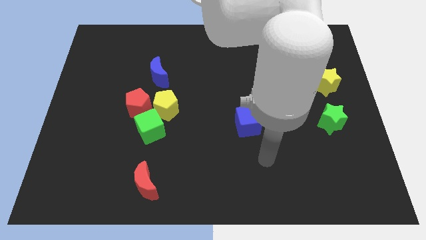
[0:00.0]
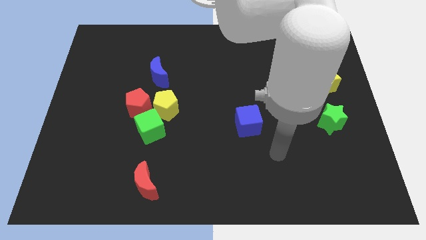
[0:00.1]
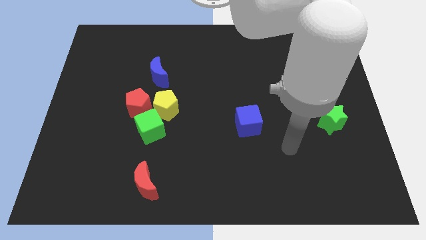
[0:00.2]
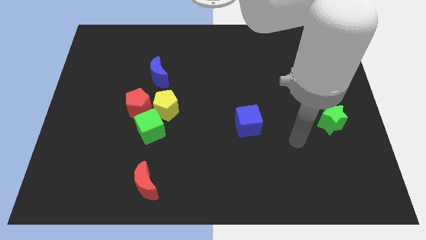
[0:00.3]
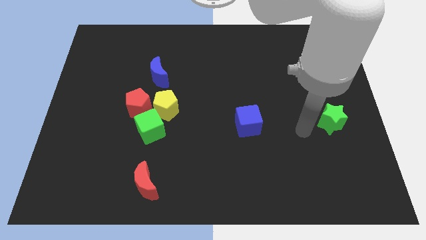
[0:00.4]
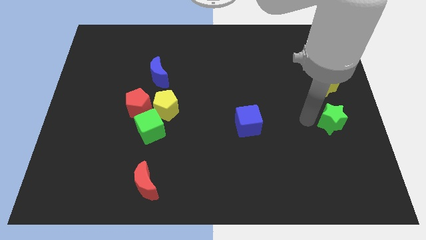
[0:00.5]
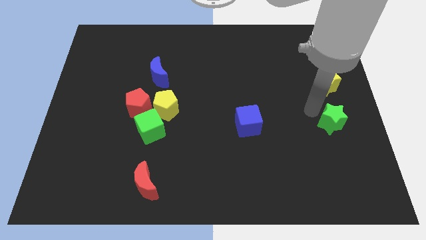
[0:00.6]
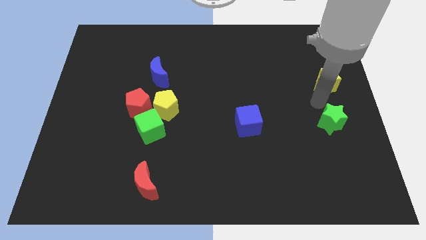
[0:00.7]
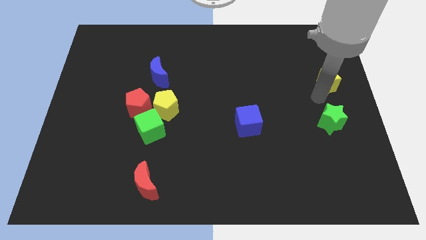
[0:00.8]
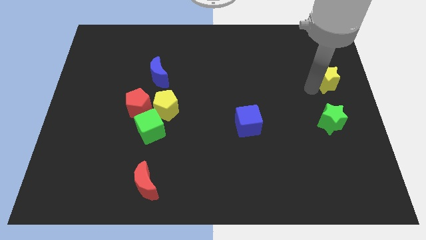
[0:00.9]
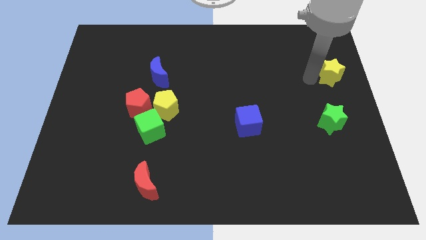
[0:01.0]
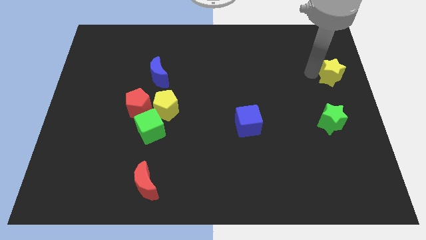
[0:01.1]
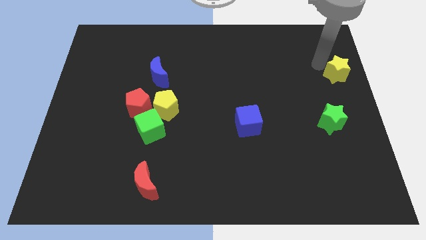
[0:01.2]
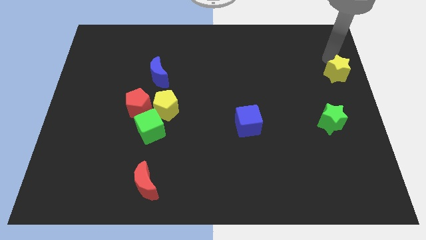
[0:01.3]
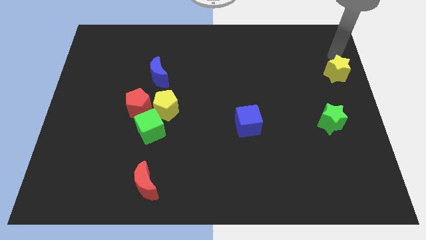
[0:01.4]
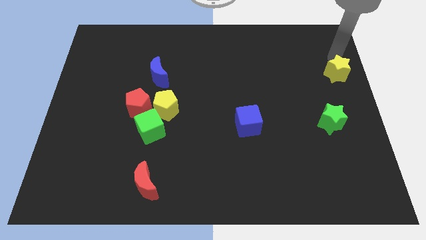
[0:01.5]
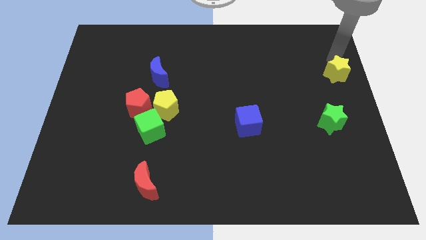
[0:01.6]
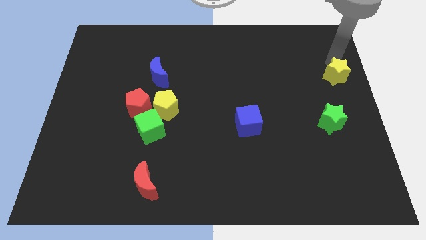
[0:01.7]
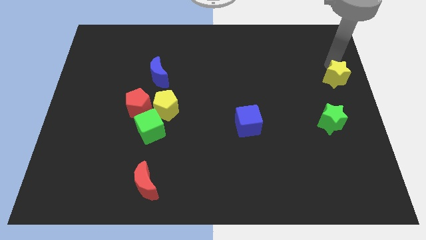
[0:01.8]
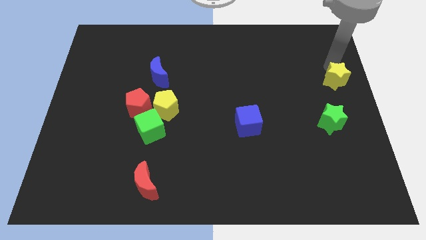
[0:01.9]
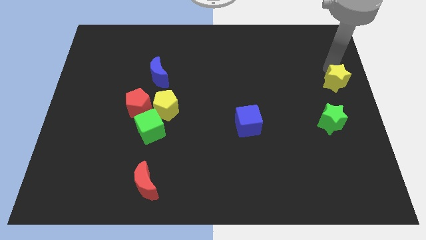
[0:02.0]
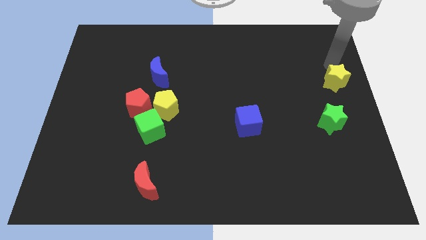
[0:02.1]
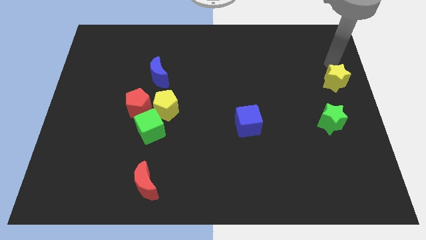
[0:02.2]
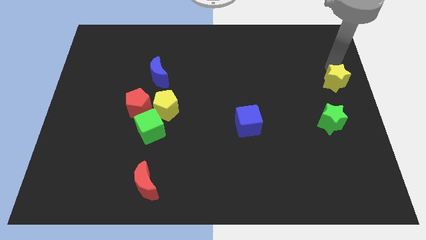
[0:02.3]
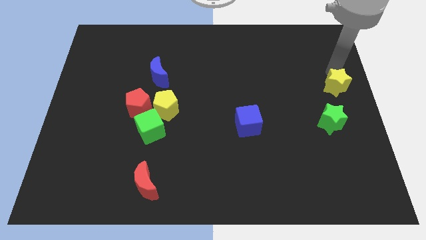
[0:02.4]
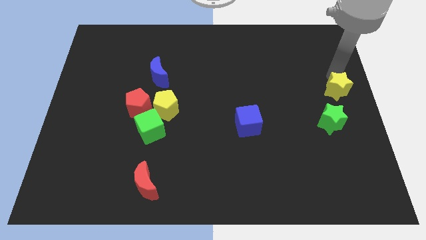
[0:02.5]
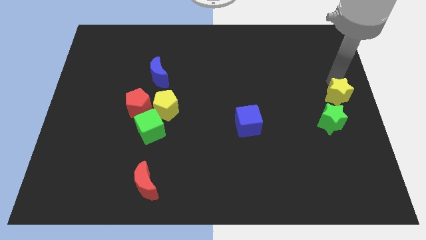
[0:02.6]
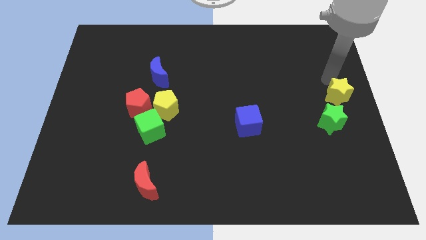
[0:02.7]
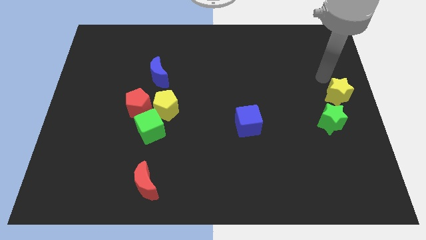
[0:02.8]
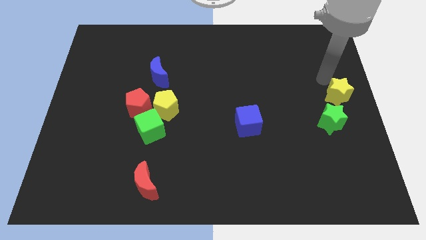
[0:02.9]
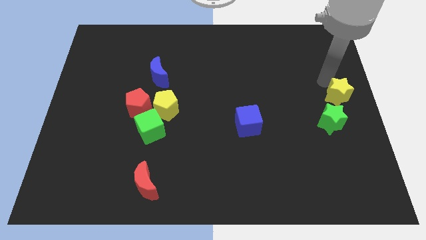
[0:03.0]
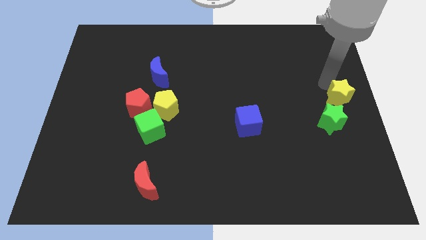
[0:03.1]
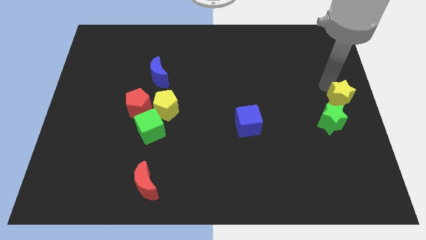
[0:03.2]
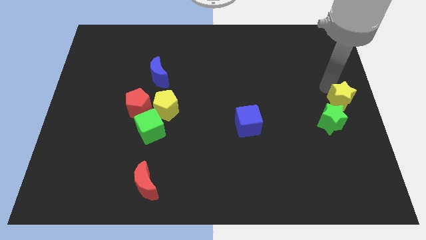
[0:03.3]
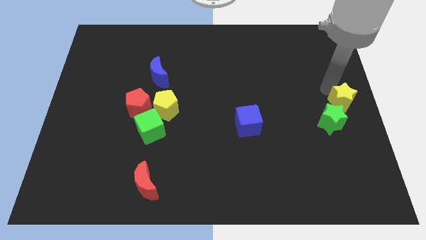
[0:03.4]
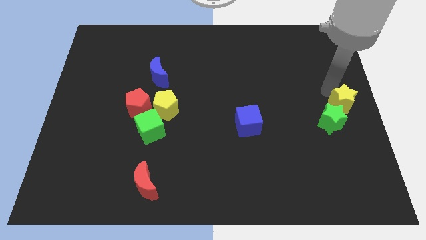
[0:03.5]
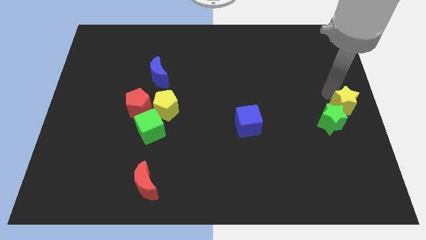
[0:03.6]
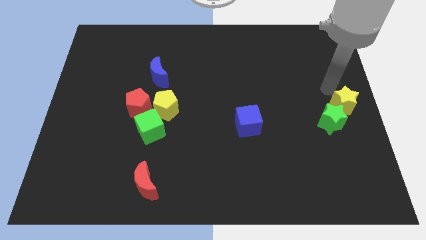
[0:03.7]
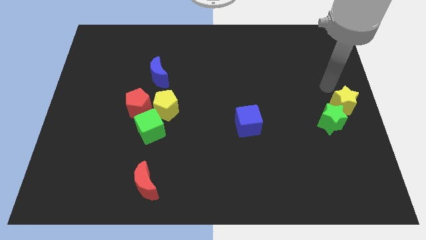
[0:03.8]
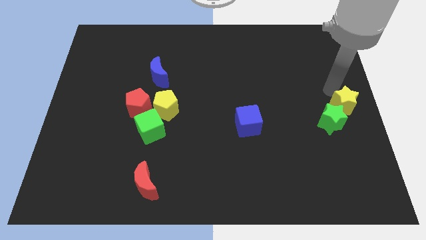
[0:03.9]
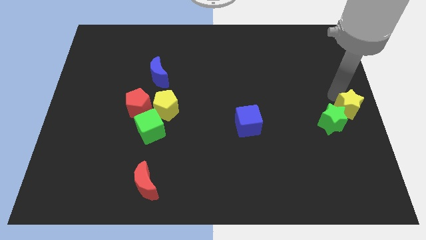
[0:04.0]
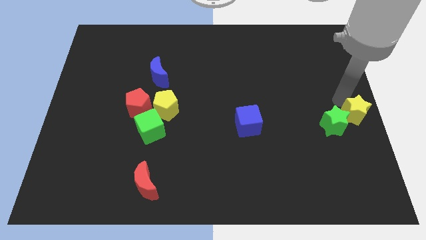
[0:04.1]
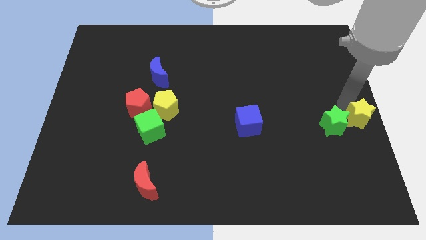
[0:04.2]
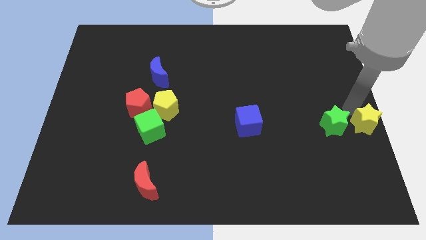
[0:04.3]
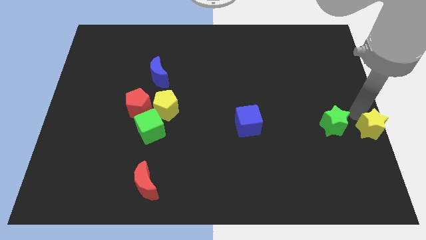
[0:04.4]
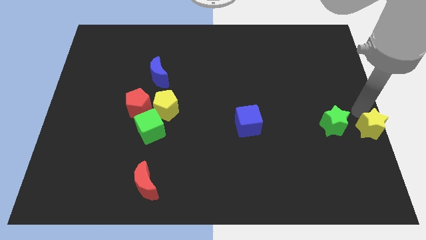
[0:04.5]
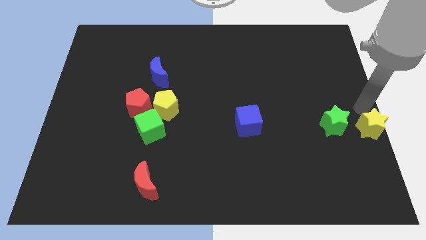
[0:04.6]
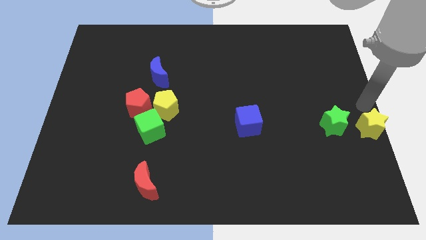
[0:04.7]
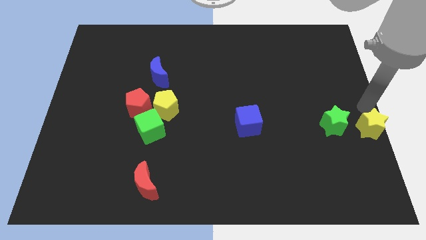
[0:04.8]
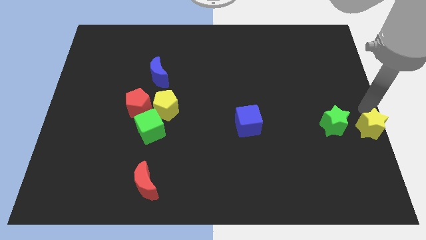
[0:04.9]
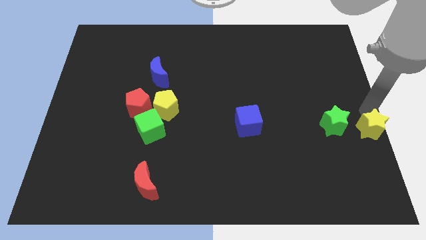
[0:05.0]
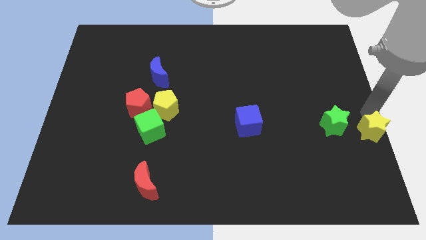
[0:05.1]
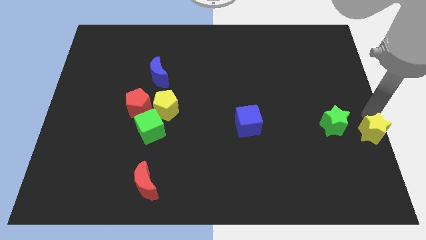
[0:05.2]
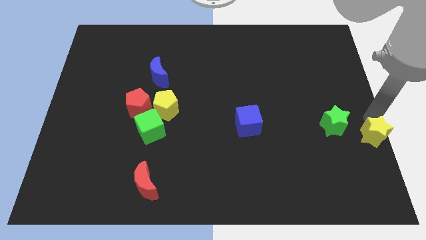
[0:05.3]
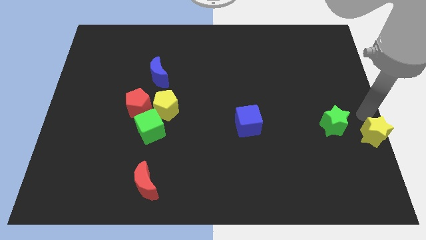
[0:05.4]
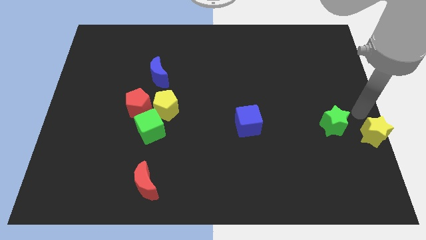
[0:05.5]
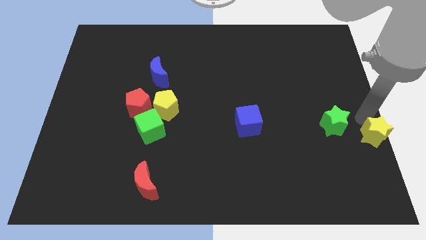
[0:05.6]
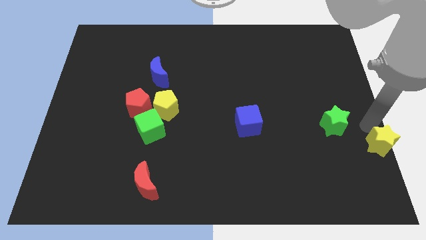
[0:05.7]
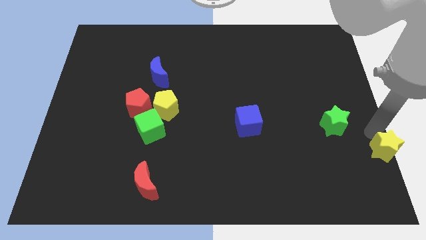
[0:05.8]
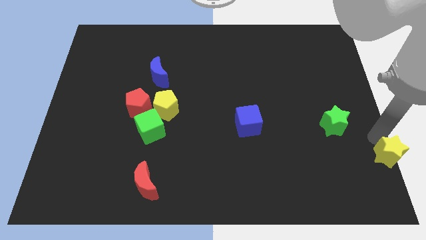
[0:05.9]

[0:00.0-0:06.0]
put the yellow star to the bottom right corner

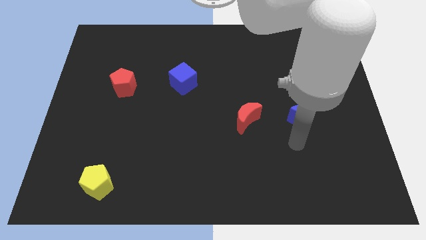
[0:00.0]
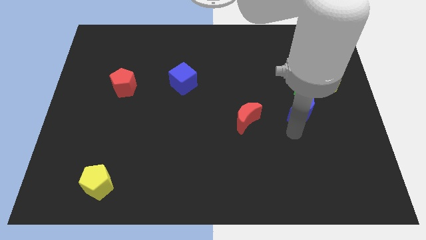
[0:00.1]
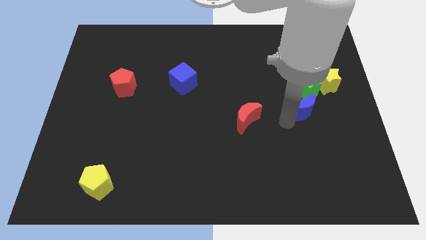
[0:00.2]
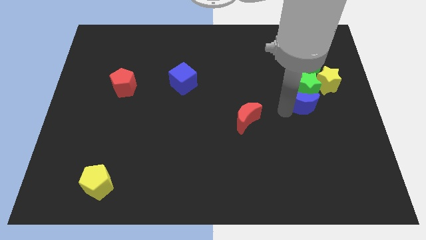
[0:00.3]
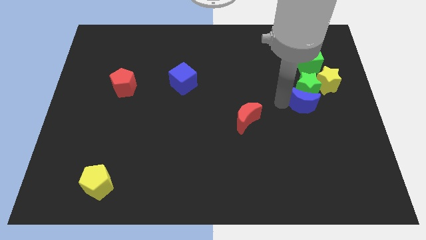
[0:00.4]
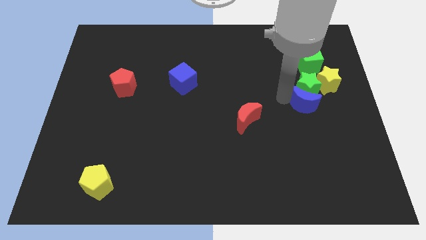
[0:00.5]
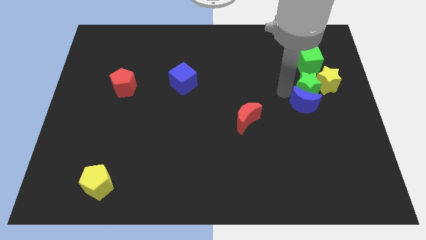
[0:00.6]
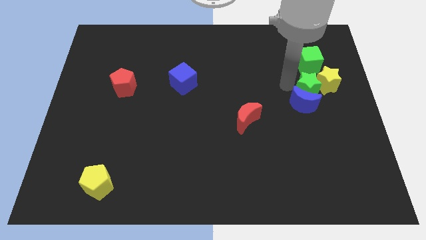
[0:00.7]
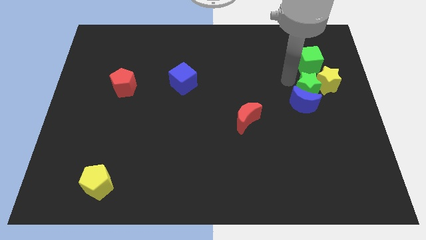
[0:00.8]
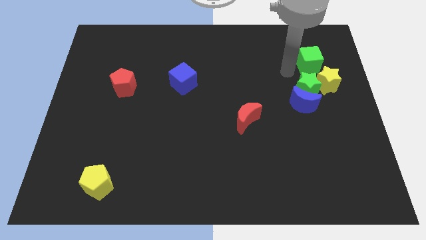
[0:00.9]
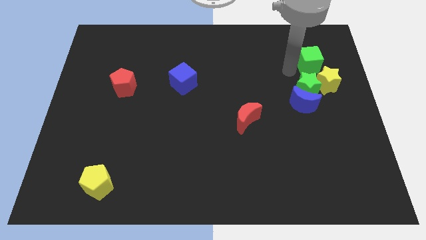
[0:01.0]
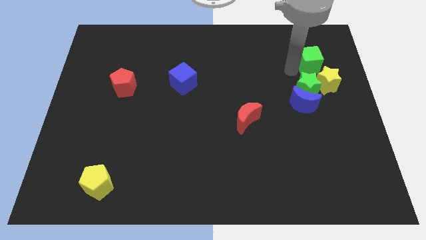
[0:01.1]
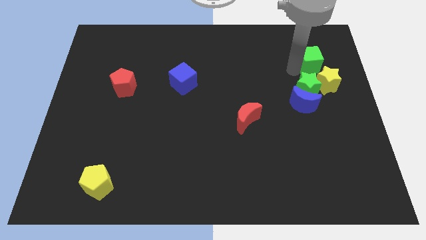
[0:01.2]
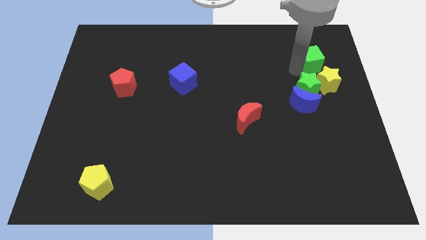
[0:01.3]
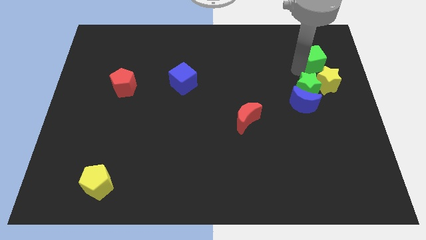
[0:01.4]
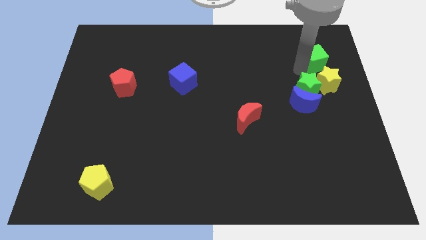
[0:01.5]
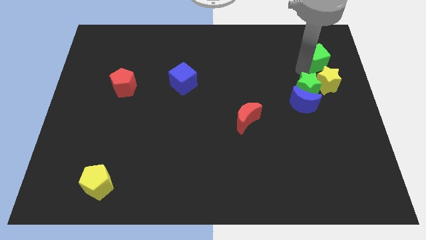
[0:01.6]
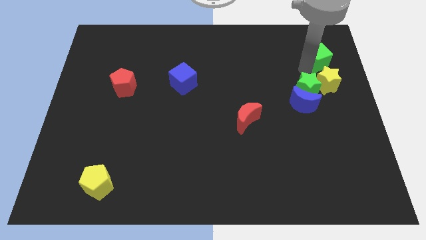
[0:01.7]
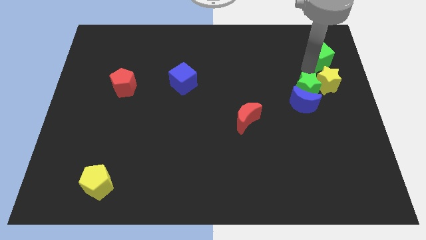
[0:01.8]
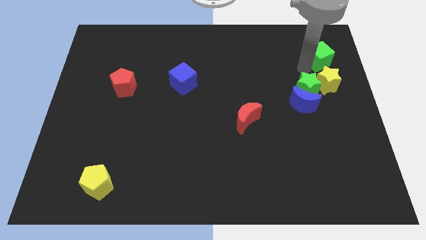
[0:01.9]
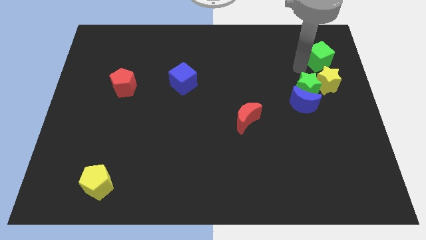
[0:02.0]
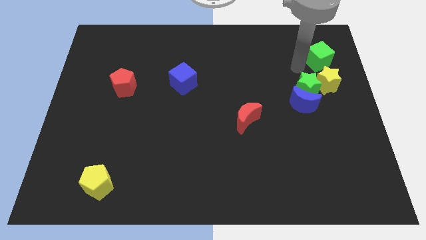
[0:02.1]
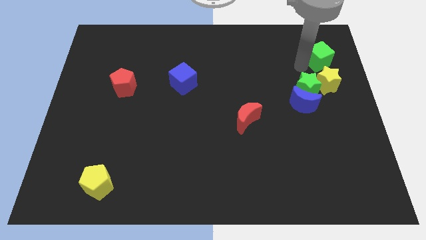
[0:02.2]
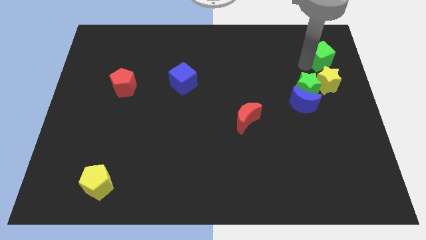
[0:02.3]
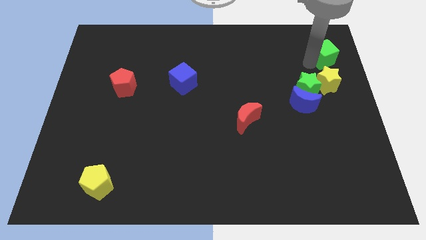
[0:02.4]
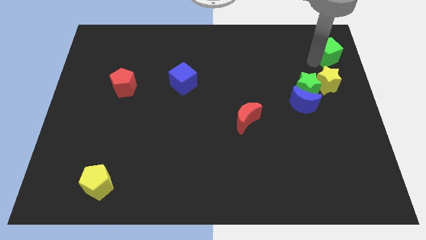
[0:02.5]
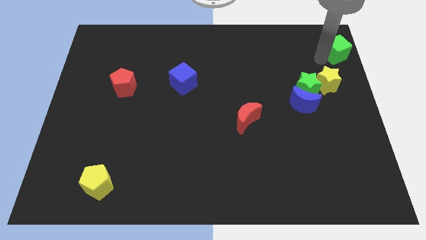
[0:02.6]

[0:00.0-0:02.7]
move the green cube to the top right corner

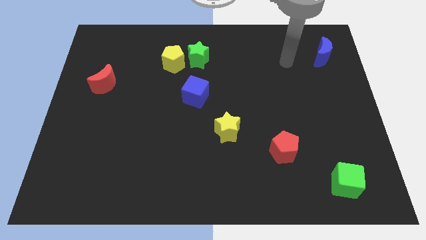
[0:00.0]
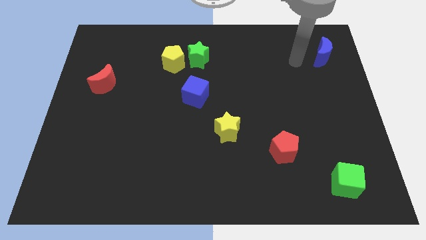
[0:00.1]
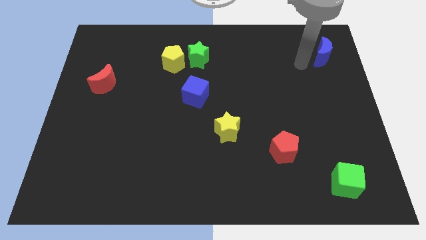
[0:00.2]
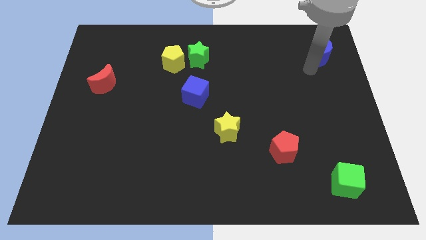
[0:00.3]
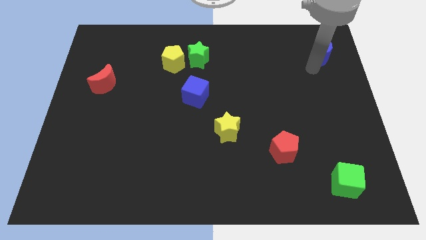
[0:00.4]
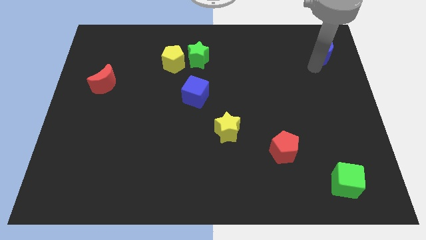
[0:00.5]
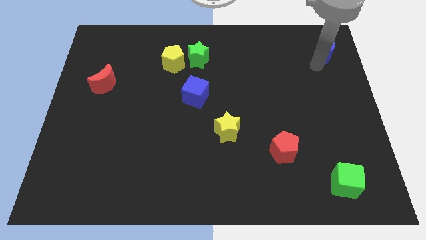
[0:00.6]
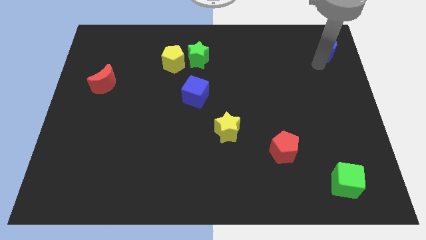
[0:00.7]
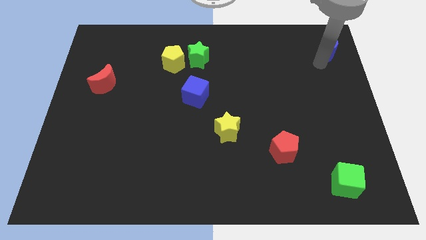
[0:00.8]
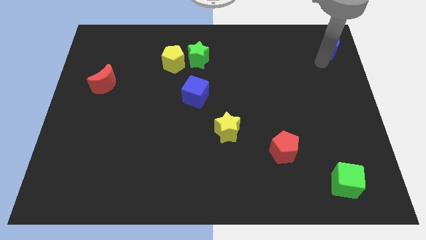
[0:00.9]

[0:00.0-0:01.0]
put the blue moon to the top right corner
